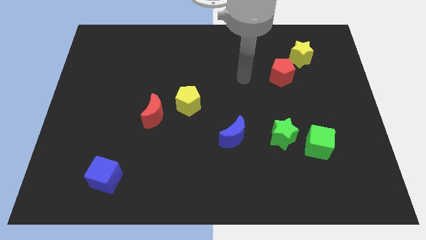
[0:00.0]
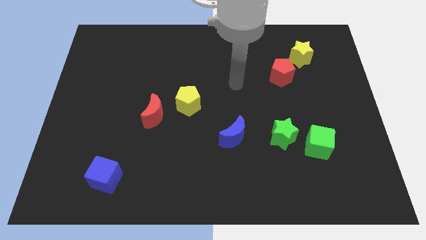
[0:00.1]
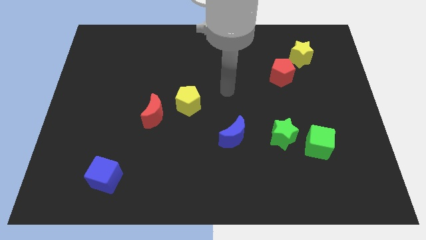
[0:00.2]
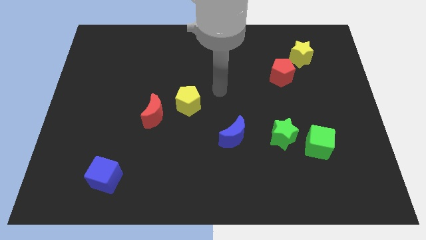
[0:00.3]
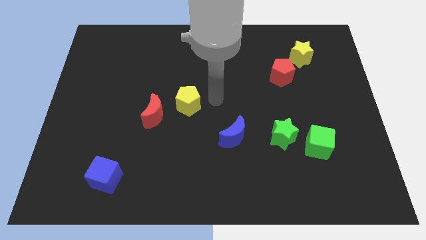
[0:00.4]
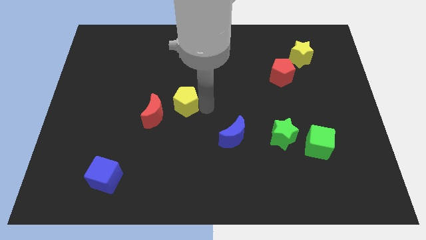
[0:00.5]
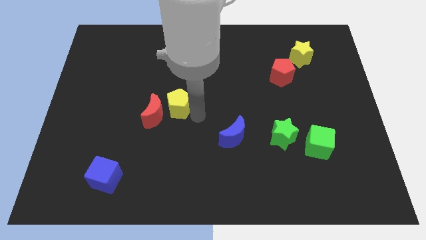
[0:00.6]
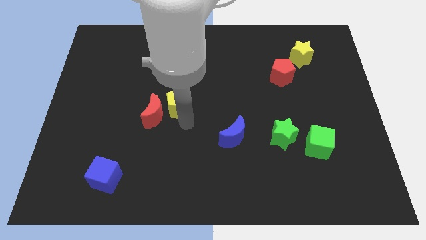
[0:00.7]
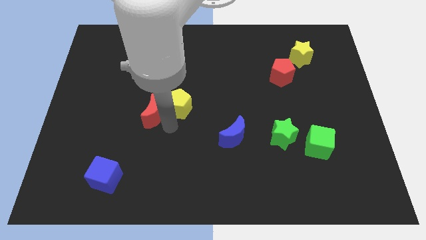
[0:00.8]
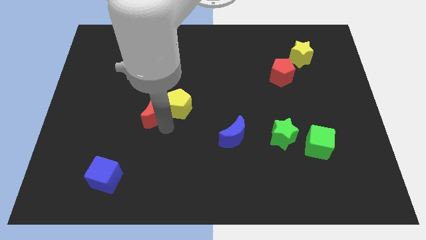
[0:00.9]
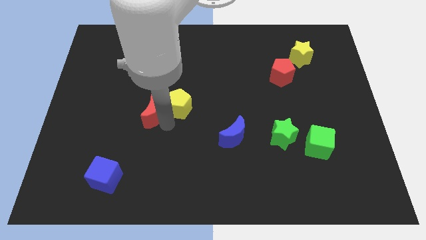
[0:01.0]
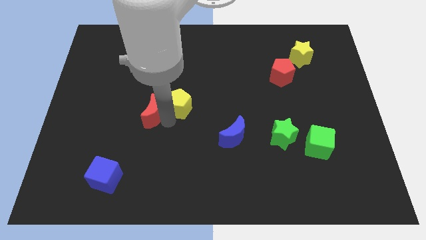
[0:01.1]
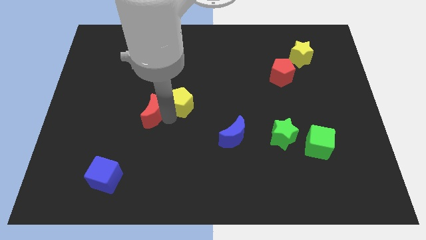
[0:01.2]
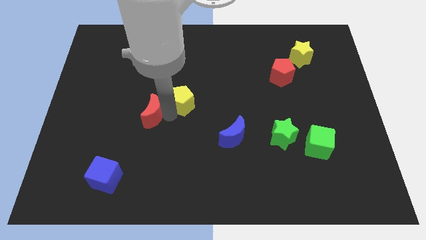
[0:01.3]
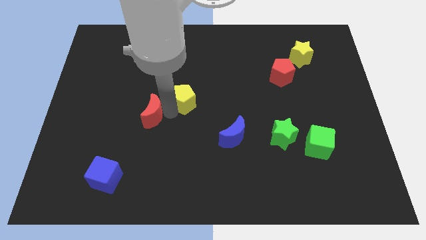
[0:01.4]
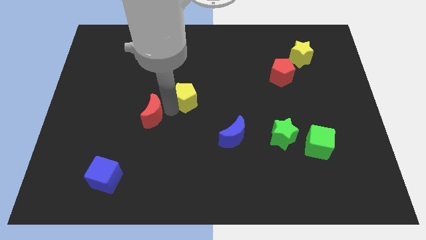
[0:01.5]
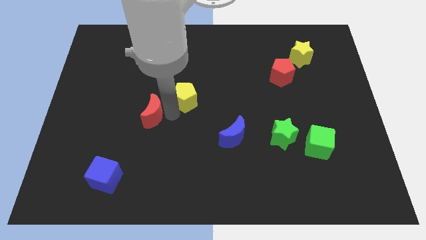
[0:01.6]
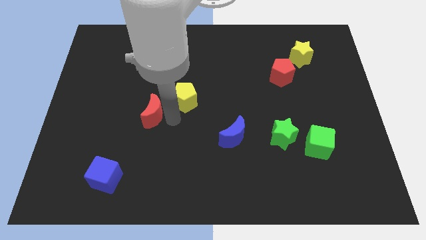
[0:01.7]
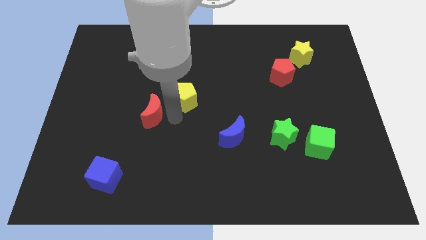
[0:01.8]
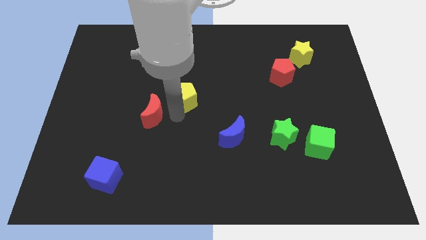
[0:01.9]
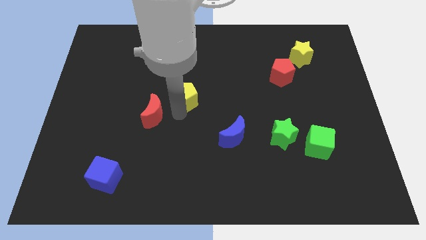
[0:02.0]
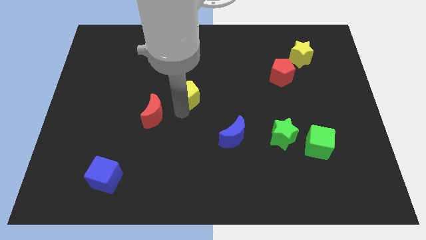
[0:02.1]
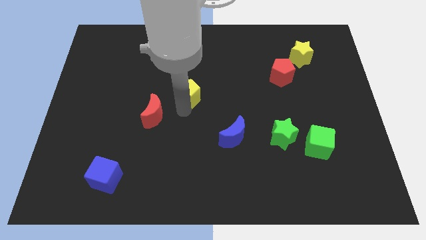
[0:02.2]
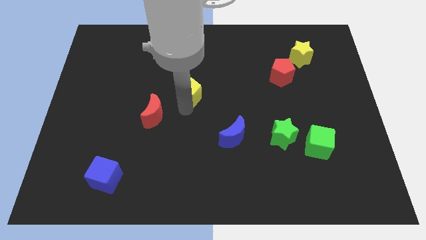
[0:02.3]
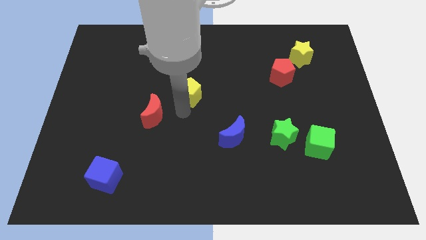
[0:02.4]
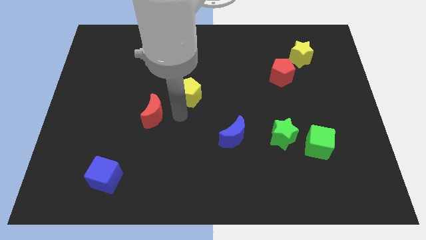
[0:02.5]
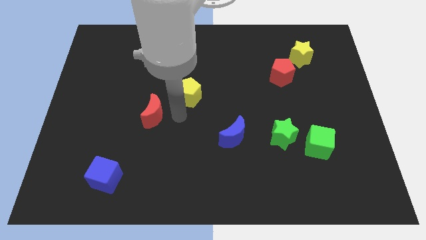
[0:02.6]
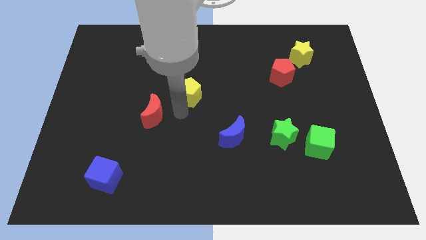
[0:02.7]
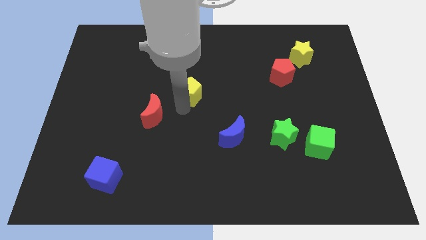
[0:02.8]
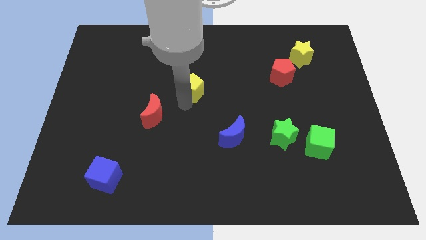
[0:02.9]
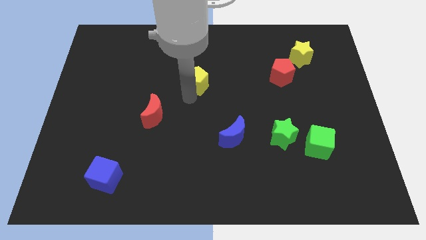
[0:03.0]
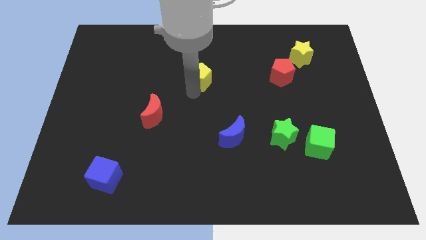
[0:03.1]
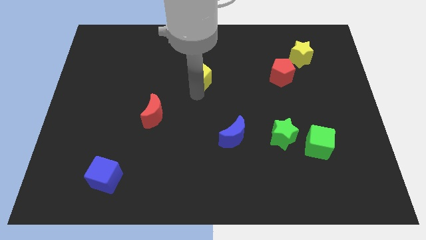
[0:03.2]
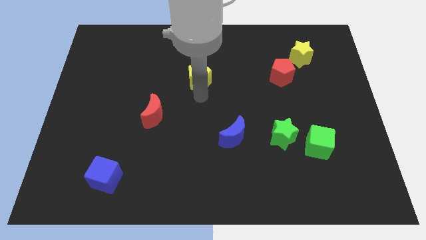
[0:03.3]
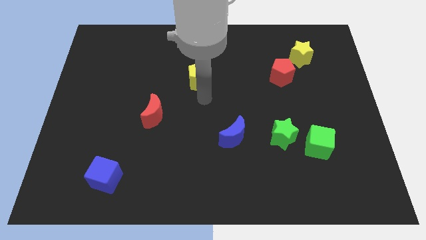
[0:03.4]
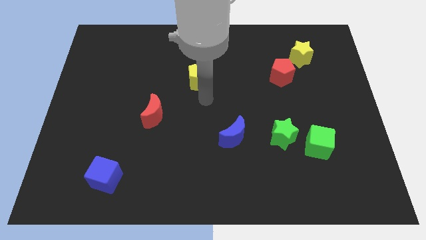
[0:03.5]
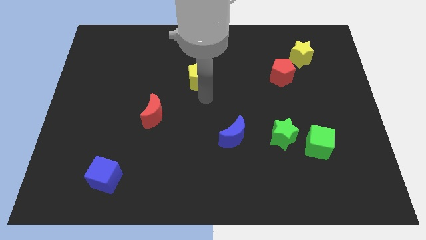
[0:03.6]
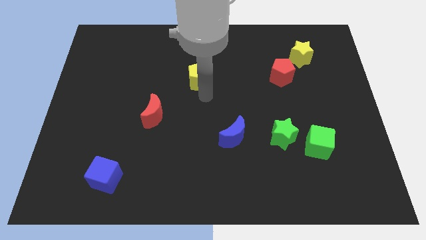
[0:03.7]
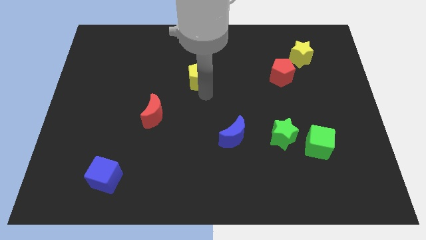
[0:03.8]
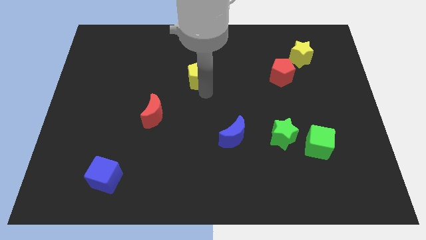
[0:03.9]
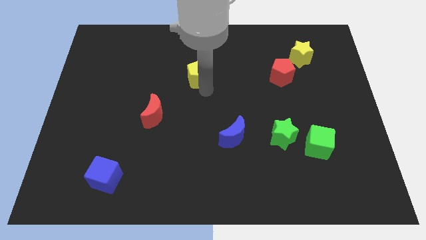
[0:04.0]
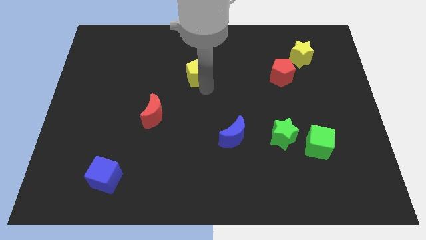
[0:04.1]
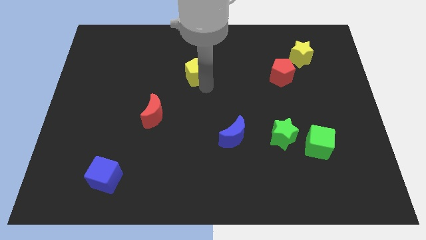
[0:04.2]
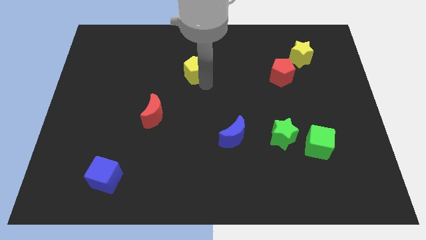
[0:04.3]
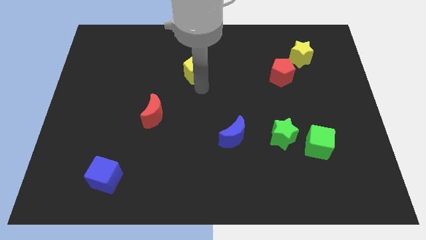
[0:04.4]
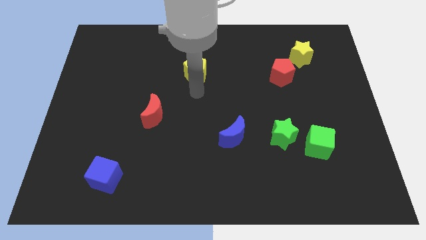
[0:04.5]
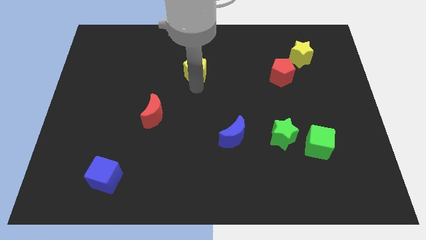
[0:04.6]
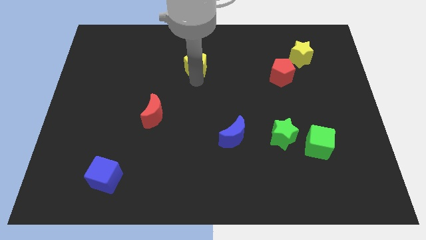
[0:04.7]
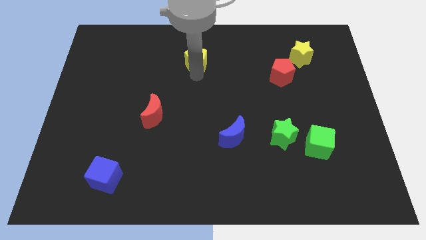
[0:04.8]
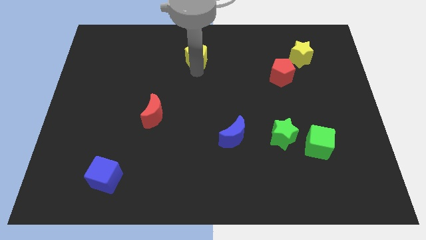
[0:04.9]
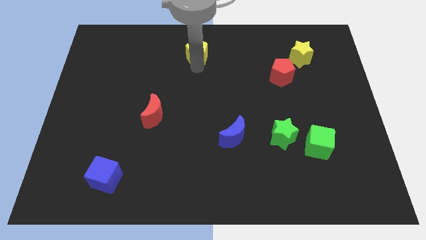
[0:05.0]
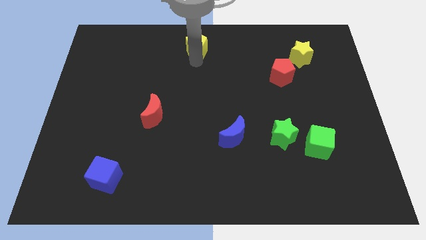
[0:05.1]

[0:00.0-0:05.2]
push the yellow pentagon to the top

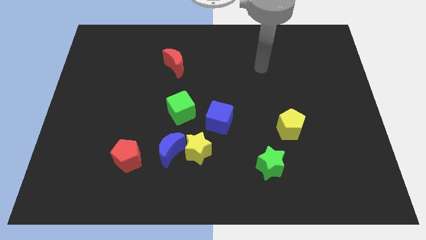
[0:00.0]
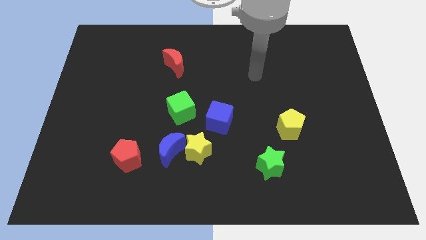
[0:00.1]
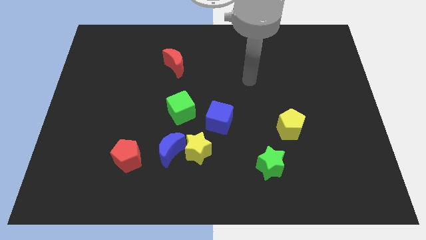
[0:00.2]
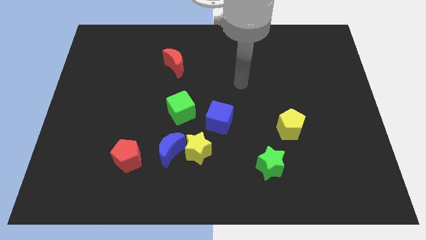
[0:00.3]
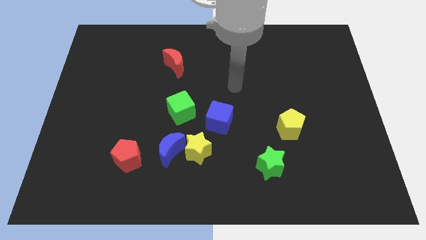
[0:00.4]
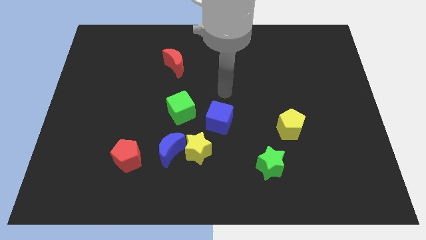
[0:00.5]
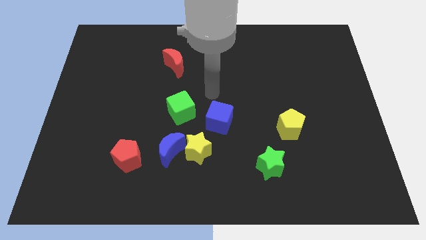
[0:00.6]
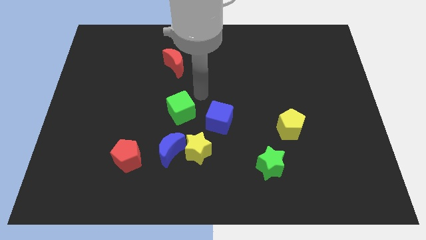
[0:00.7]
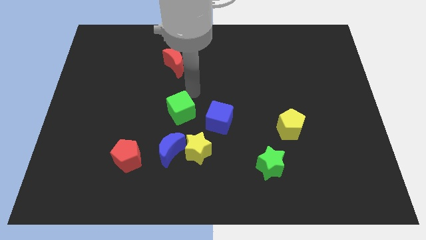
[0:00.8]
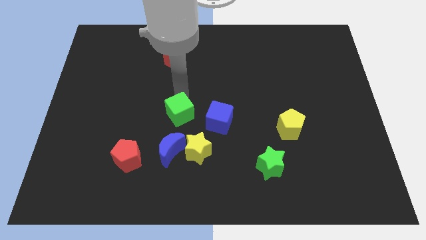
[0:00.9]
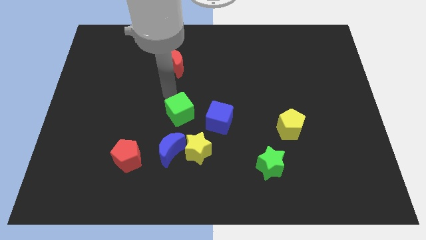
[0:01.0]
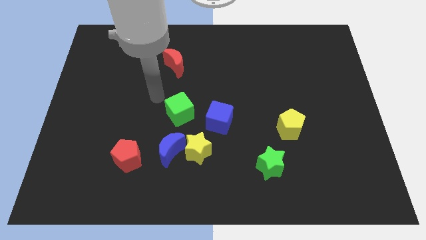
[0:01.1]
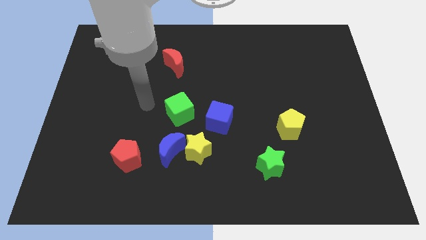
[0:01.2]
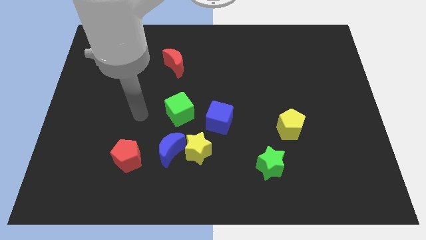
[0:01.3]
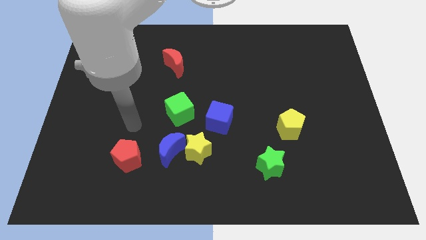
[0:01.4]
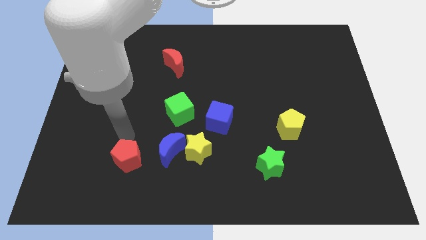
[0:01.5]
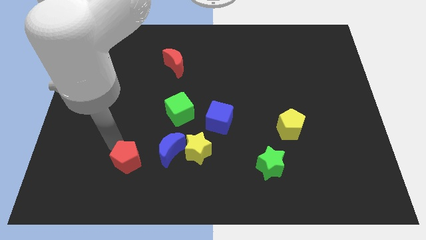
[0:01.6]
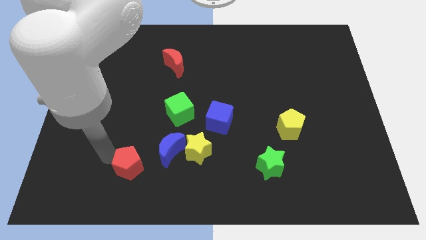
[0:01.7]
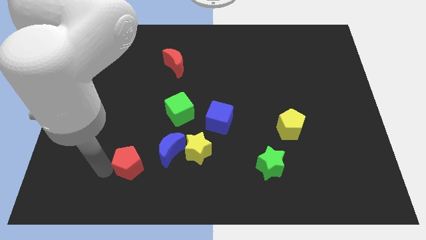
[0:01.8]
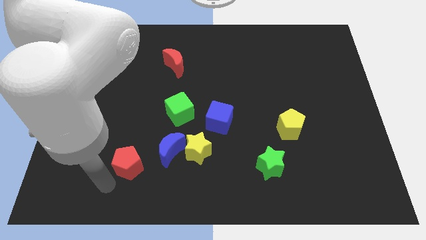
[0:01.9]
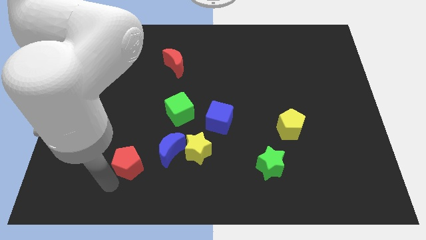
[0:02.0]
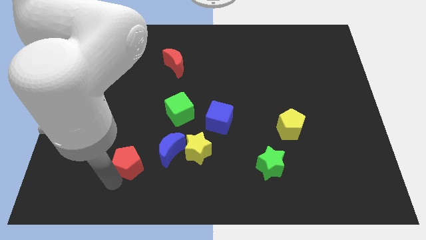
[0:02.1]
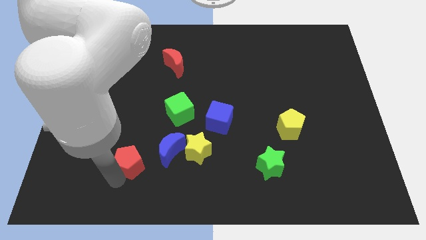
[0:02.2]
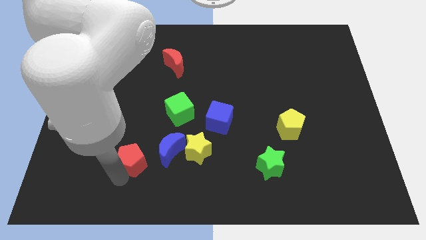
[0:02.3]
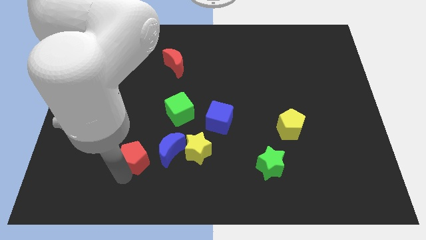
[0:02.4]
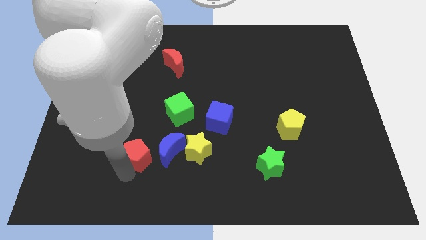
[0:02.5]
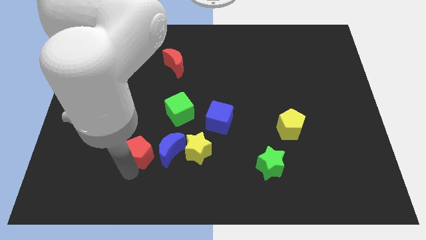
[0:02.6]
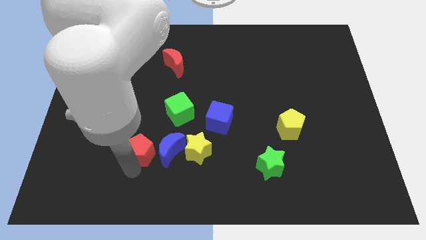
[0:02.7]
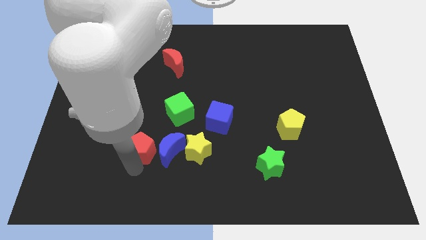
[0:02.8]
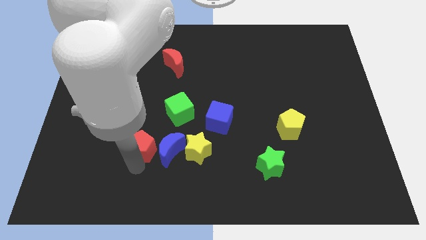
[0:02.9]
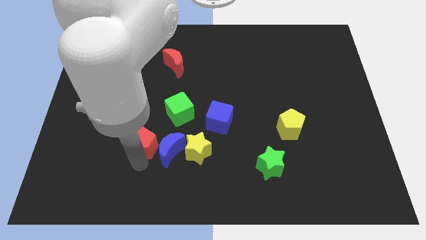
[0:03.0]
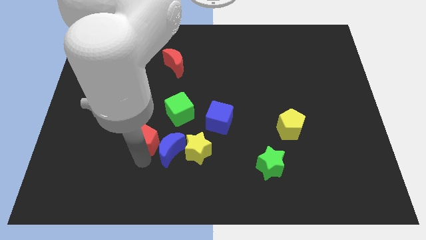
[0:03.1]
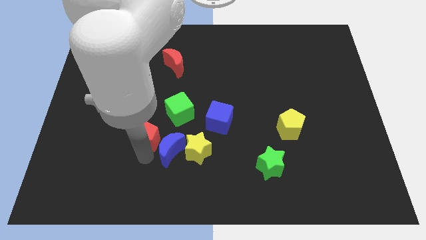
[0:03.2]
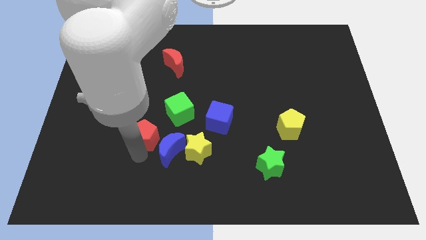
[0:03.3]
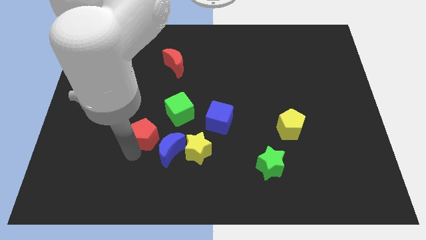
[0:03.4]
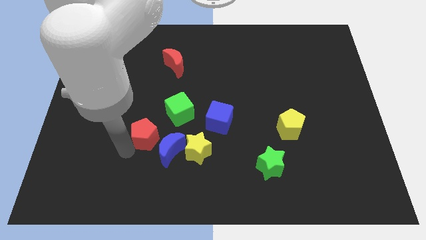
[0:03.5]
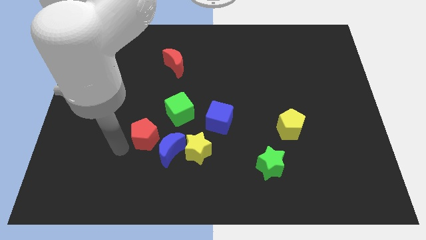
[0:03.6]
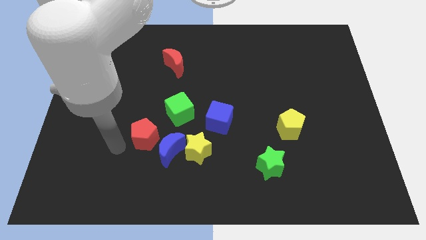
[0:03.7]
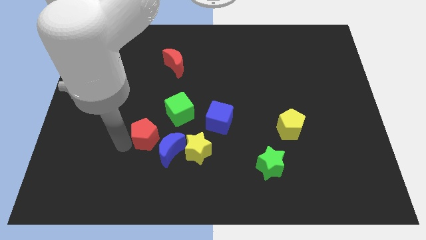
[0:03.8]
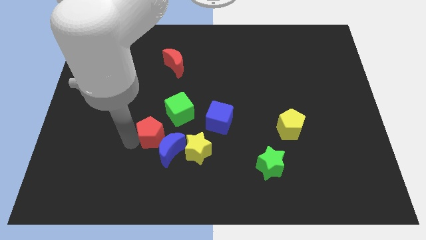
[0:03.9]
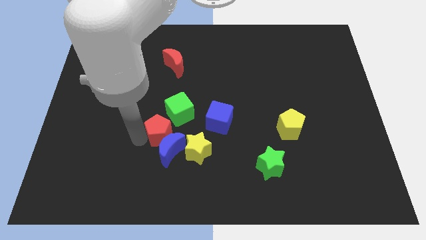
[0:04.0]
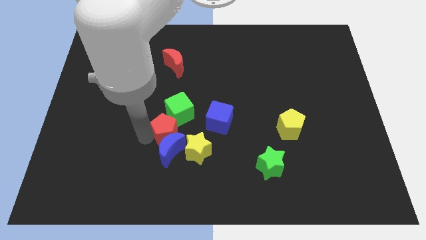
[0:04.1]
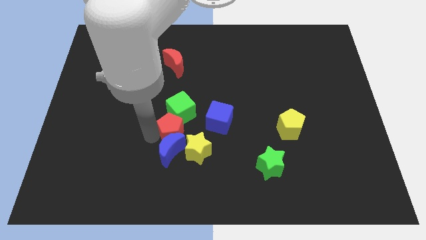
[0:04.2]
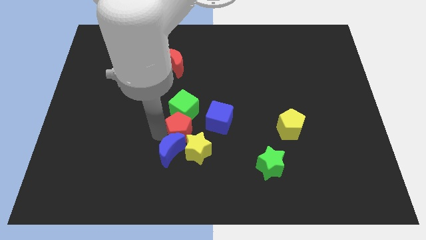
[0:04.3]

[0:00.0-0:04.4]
slide the red pentagon to the middle
